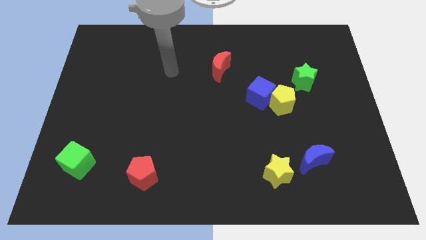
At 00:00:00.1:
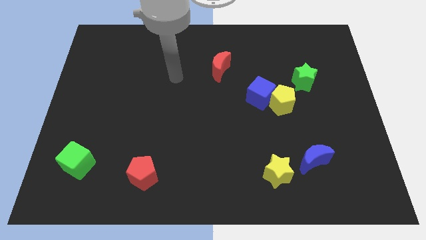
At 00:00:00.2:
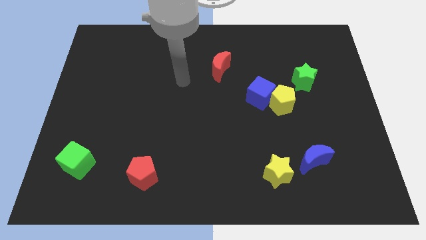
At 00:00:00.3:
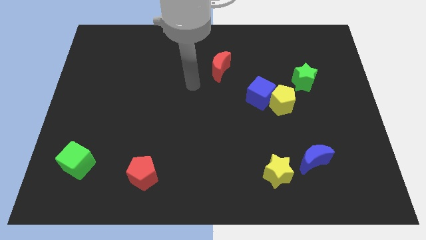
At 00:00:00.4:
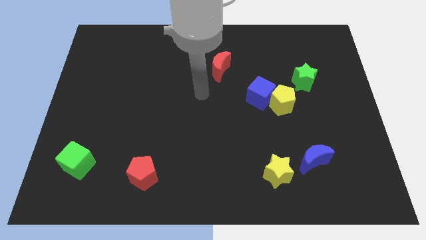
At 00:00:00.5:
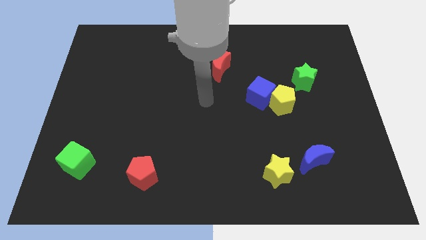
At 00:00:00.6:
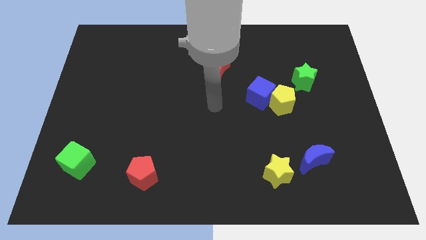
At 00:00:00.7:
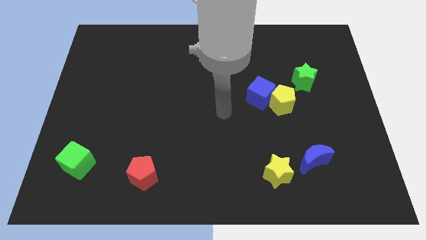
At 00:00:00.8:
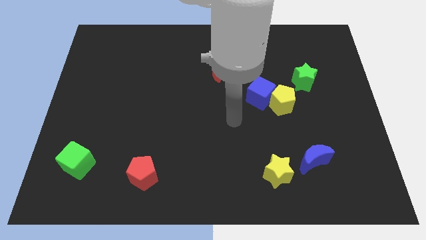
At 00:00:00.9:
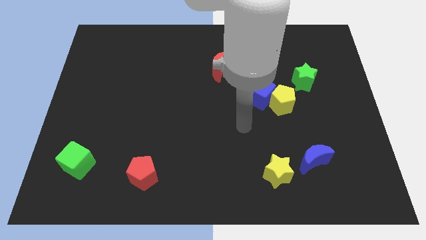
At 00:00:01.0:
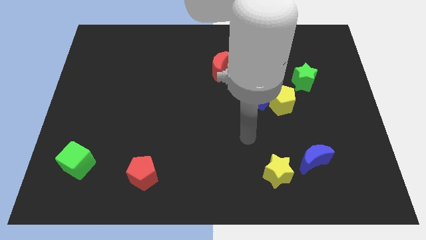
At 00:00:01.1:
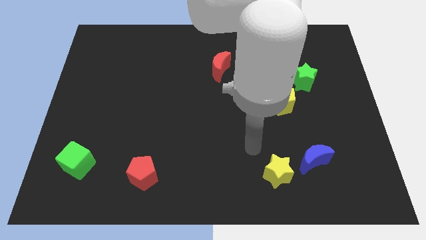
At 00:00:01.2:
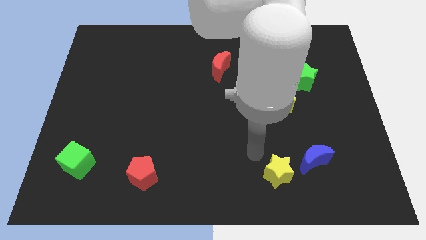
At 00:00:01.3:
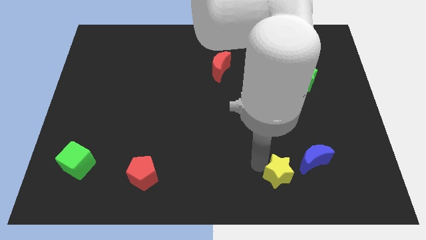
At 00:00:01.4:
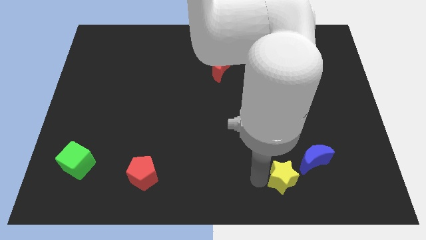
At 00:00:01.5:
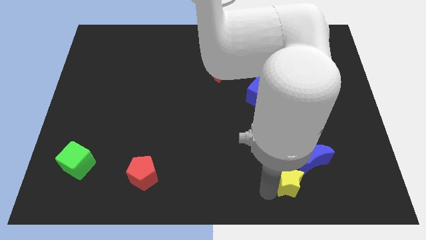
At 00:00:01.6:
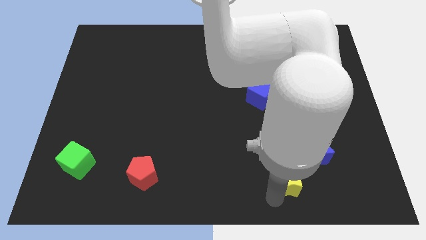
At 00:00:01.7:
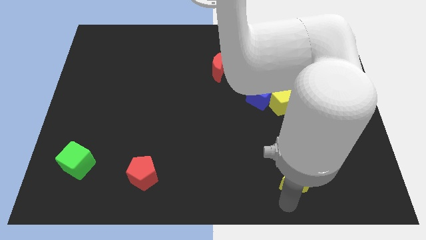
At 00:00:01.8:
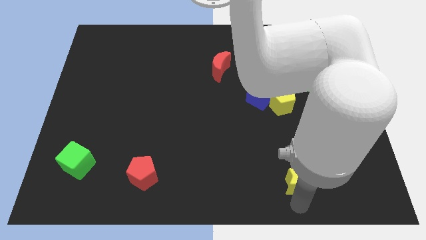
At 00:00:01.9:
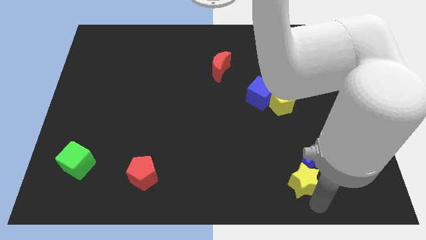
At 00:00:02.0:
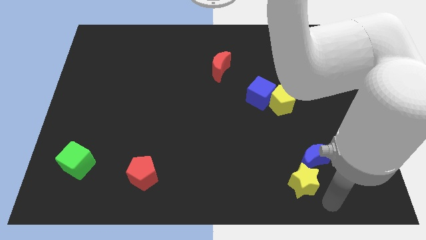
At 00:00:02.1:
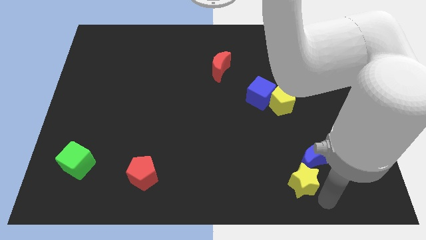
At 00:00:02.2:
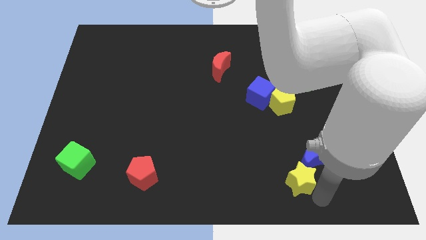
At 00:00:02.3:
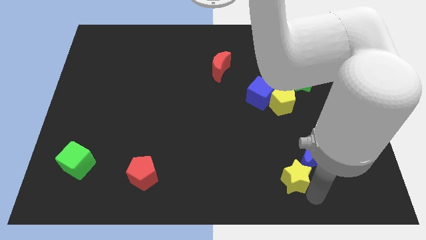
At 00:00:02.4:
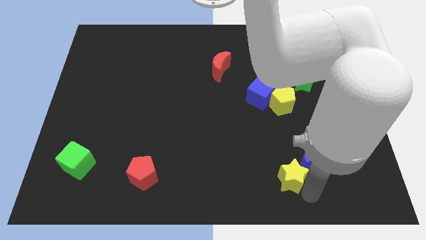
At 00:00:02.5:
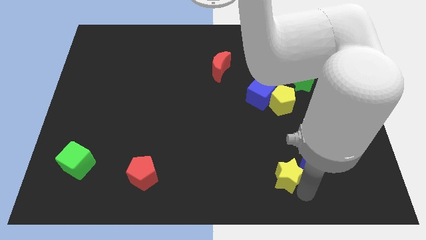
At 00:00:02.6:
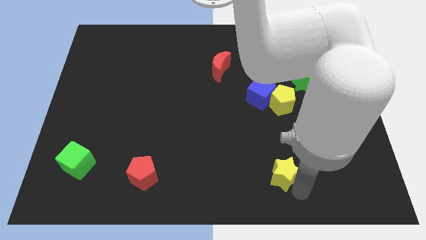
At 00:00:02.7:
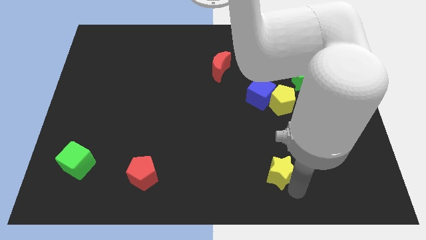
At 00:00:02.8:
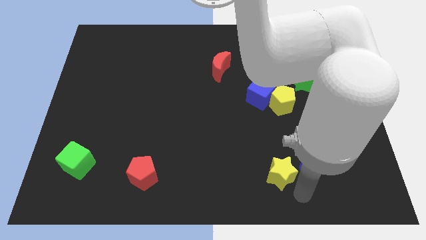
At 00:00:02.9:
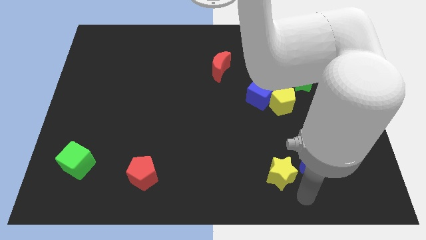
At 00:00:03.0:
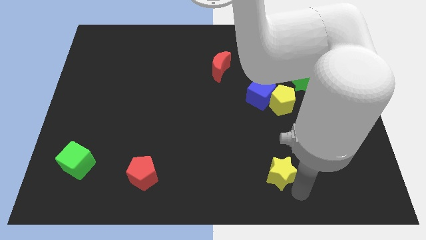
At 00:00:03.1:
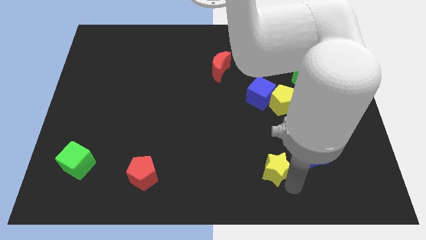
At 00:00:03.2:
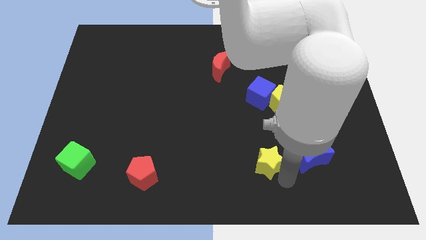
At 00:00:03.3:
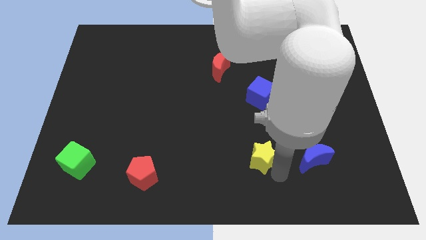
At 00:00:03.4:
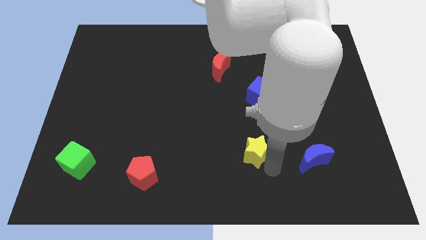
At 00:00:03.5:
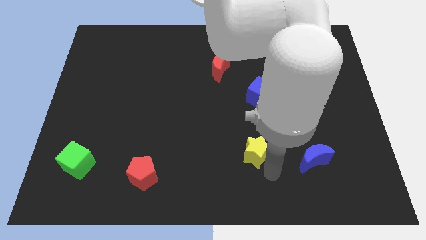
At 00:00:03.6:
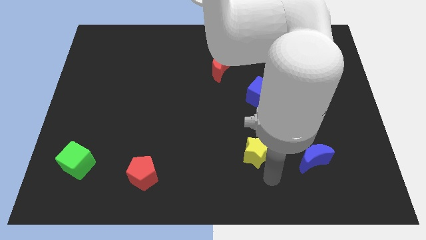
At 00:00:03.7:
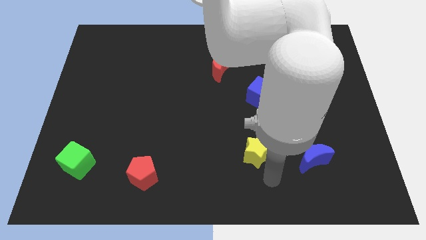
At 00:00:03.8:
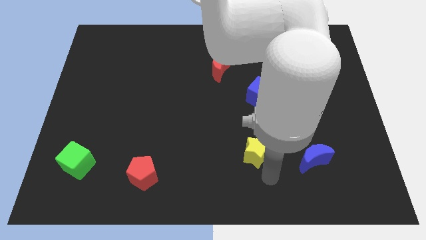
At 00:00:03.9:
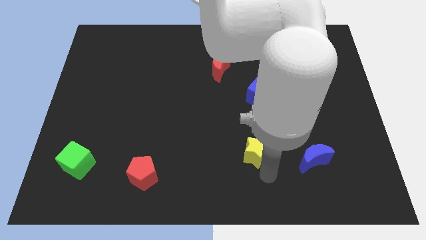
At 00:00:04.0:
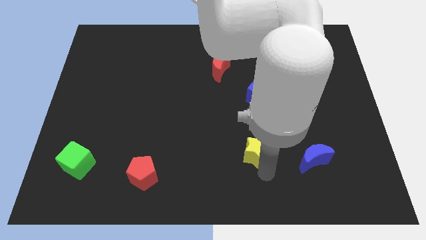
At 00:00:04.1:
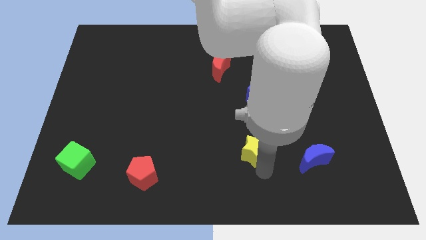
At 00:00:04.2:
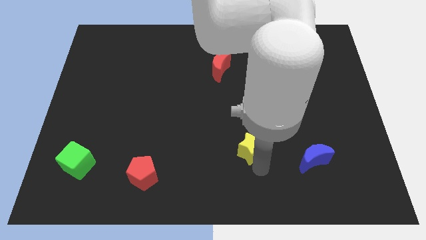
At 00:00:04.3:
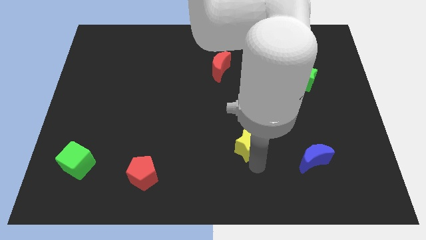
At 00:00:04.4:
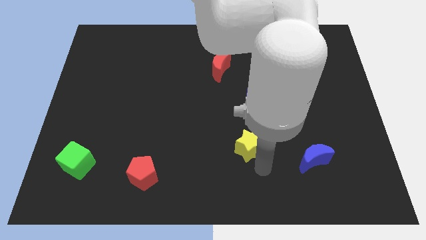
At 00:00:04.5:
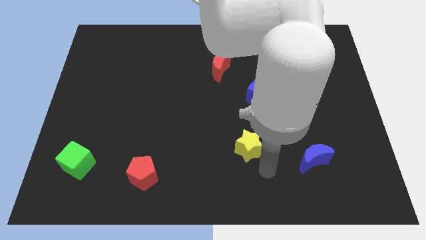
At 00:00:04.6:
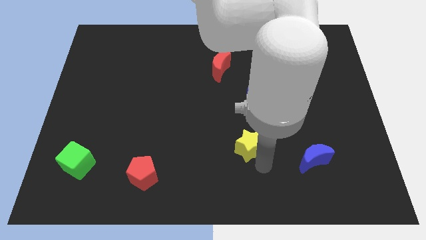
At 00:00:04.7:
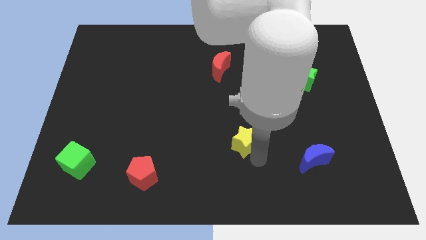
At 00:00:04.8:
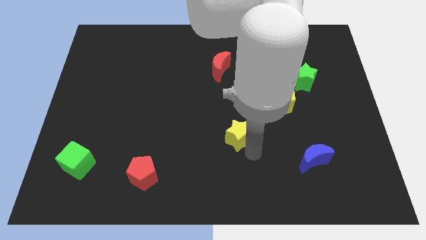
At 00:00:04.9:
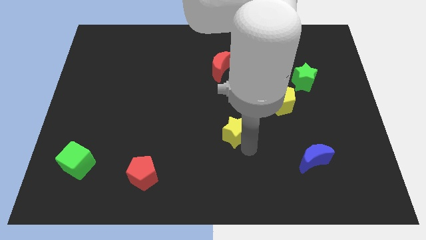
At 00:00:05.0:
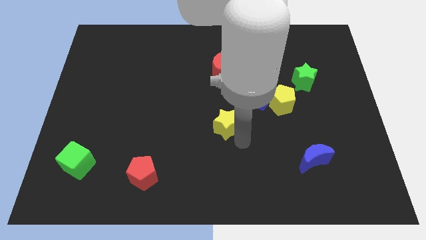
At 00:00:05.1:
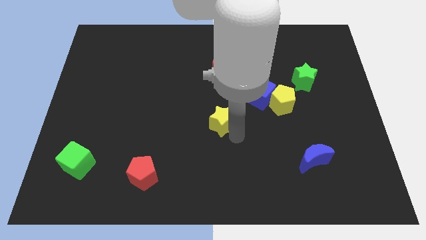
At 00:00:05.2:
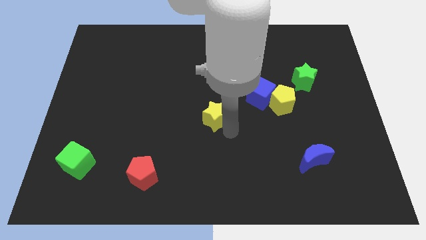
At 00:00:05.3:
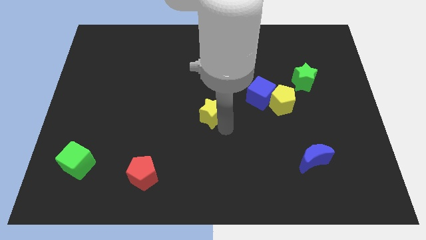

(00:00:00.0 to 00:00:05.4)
slide the yellow star upwards and left

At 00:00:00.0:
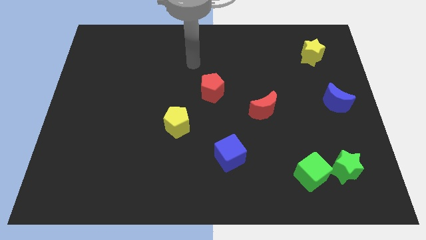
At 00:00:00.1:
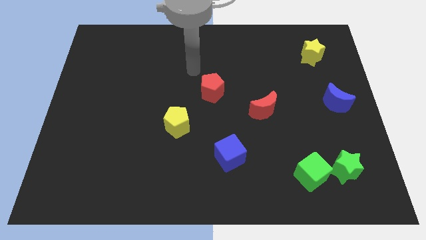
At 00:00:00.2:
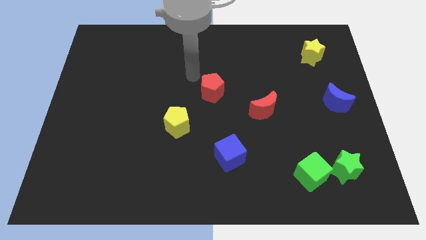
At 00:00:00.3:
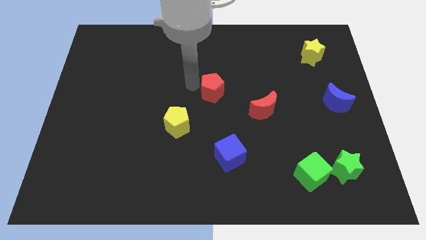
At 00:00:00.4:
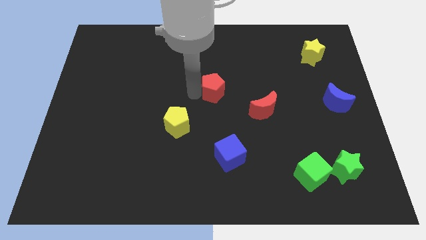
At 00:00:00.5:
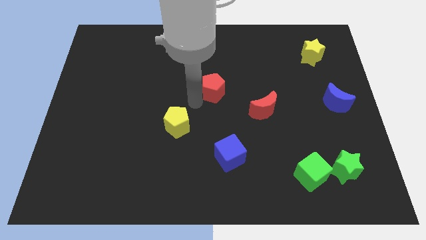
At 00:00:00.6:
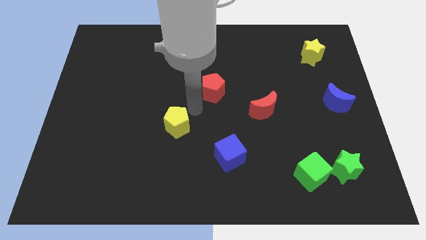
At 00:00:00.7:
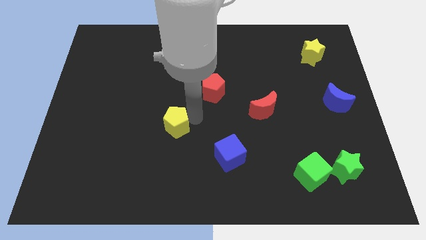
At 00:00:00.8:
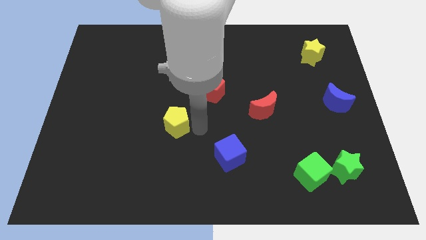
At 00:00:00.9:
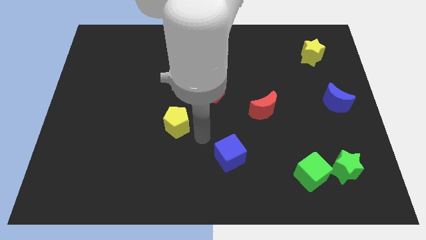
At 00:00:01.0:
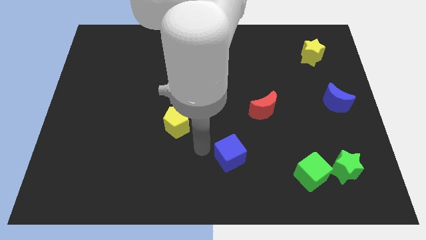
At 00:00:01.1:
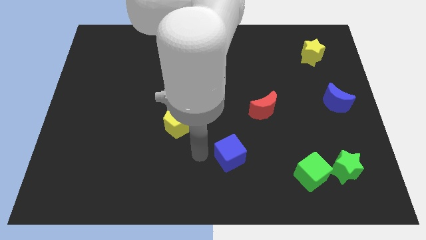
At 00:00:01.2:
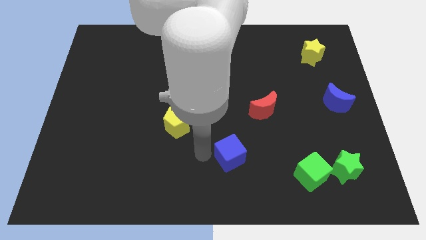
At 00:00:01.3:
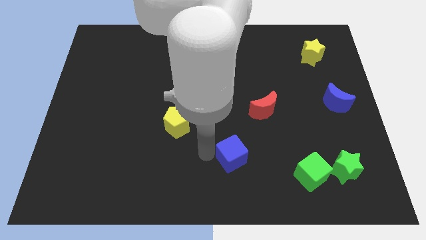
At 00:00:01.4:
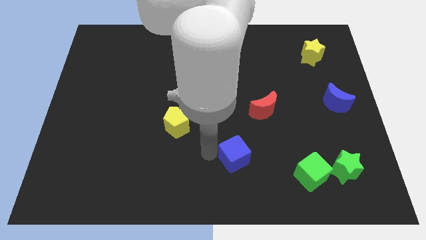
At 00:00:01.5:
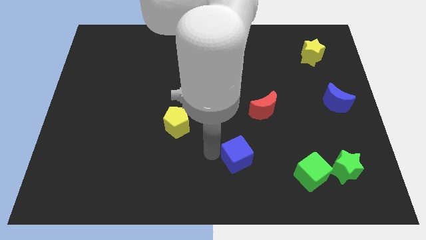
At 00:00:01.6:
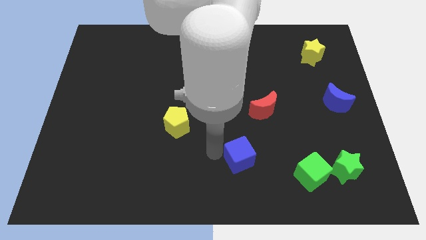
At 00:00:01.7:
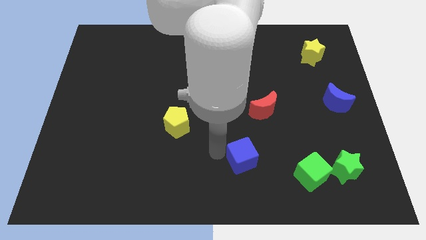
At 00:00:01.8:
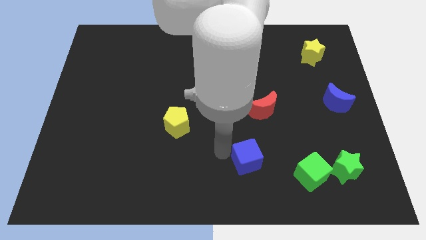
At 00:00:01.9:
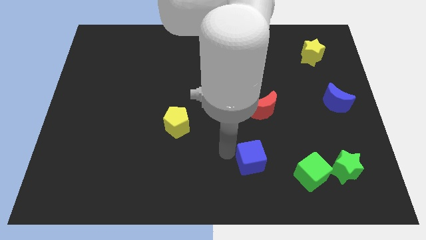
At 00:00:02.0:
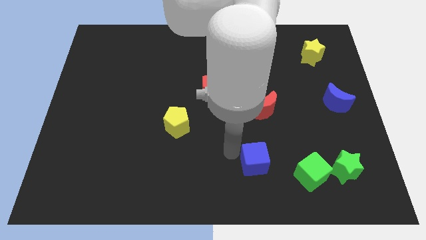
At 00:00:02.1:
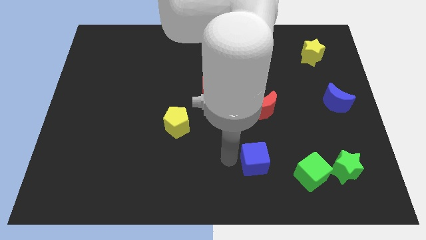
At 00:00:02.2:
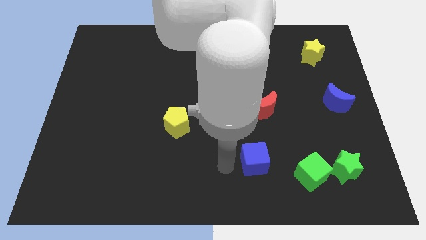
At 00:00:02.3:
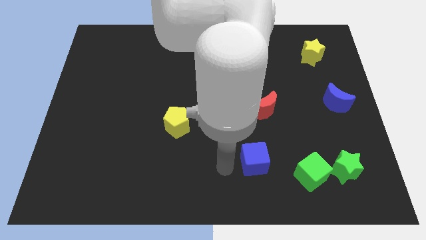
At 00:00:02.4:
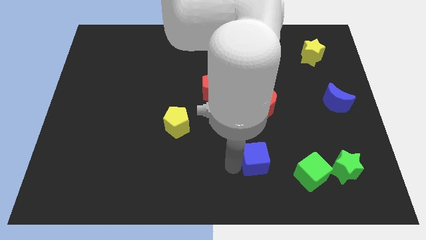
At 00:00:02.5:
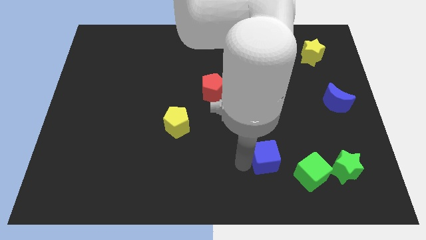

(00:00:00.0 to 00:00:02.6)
push the blue cube a bit right
